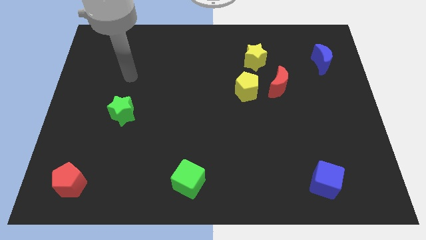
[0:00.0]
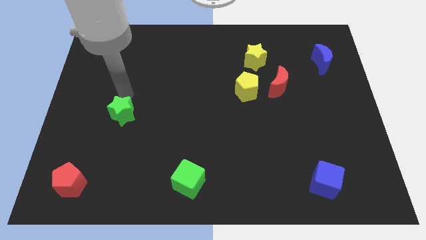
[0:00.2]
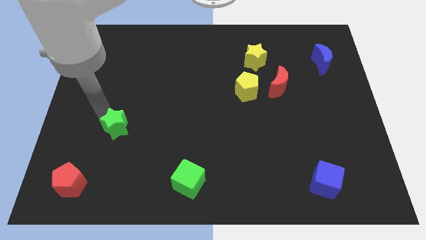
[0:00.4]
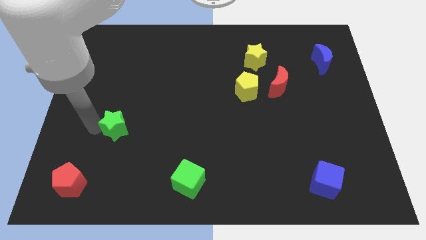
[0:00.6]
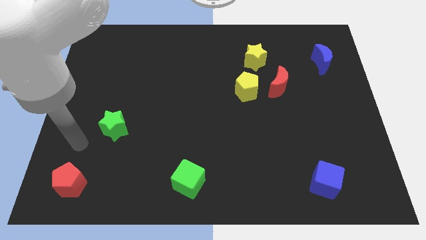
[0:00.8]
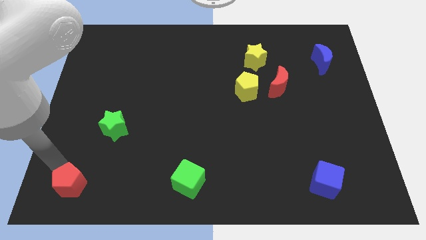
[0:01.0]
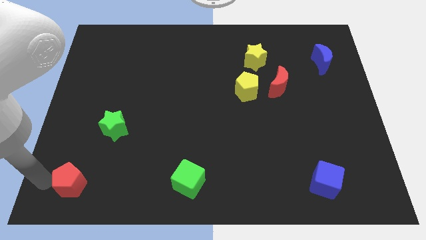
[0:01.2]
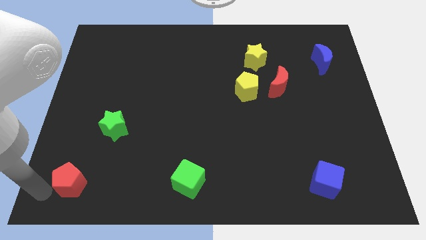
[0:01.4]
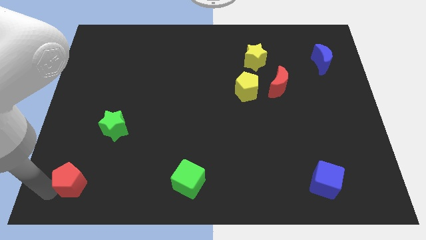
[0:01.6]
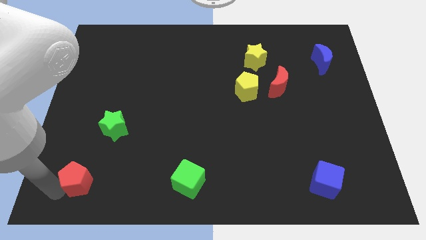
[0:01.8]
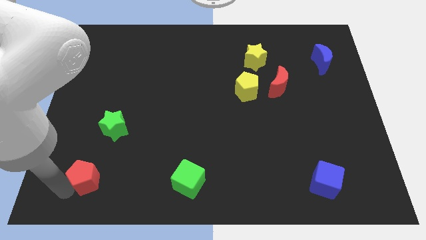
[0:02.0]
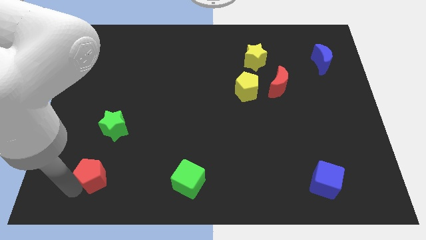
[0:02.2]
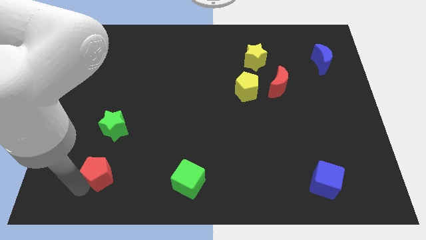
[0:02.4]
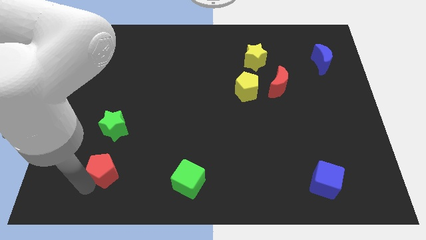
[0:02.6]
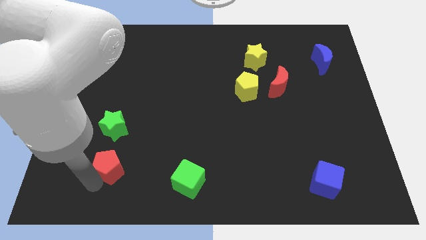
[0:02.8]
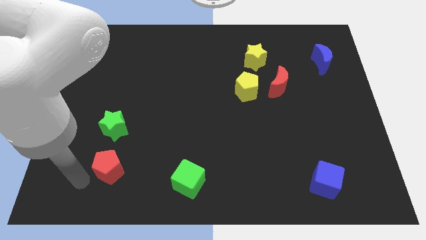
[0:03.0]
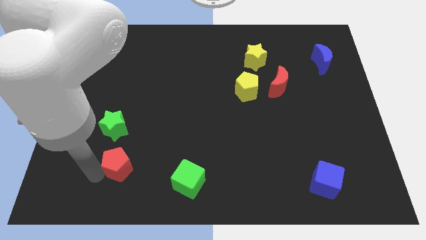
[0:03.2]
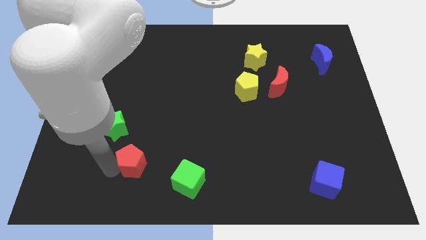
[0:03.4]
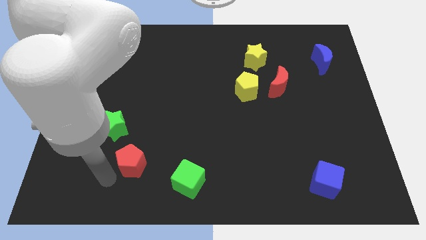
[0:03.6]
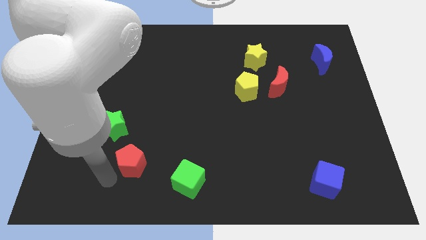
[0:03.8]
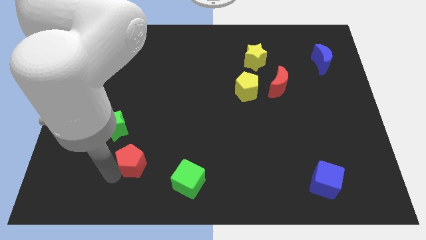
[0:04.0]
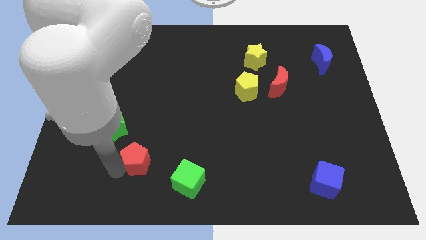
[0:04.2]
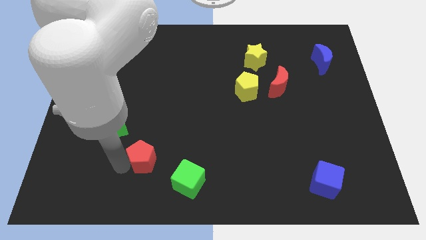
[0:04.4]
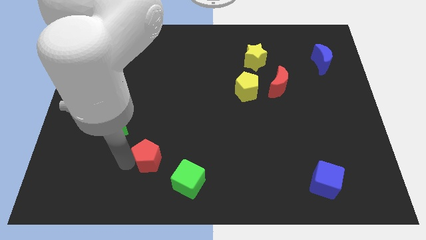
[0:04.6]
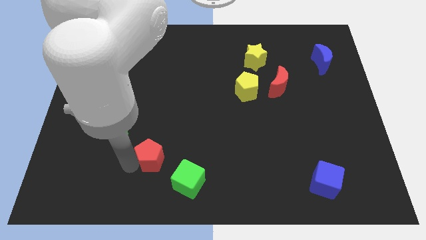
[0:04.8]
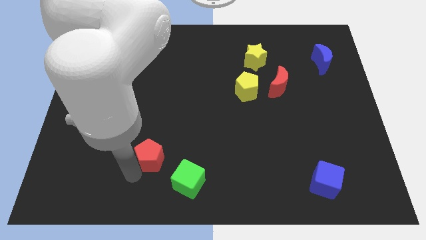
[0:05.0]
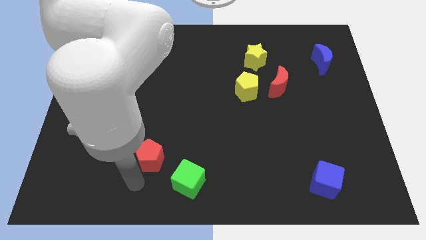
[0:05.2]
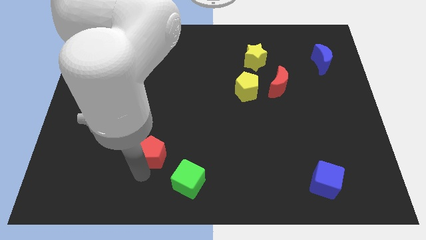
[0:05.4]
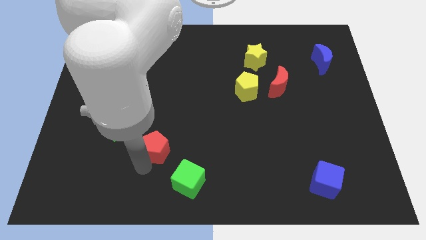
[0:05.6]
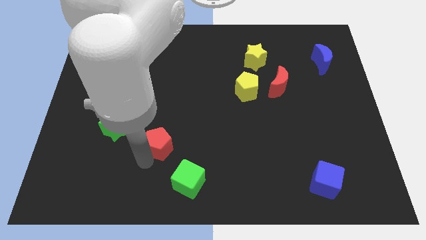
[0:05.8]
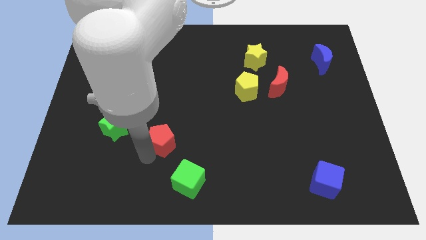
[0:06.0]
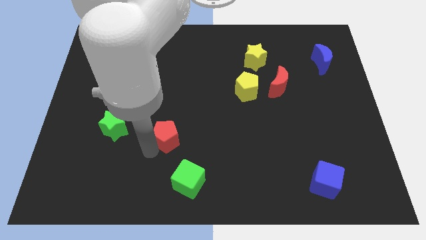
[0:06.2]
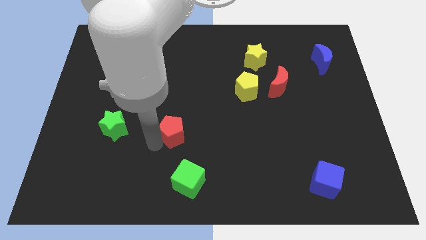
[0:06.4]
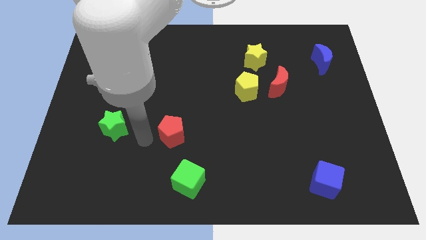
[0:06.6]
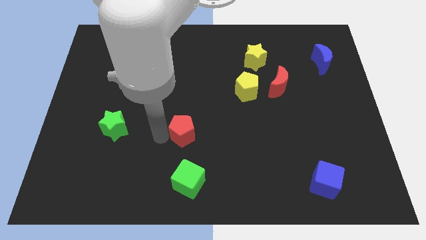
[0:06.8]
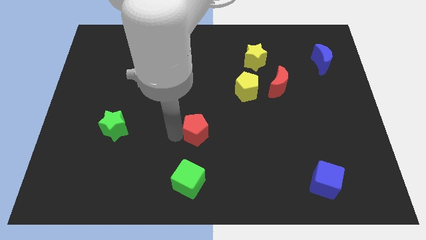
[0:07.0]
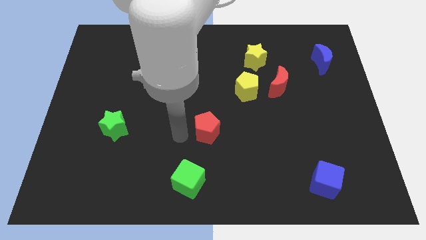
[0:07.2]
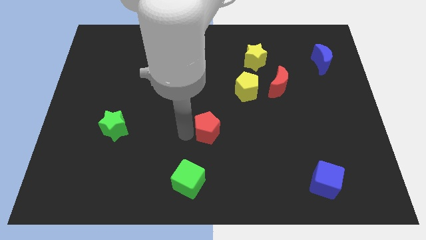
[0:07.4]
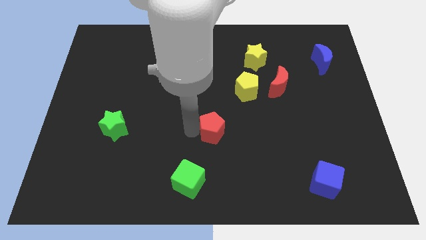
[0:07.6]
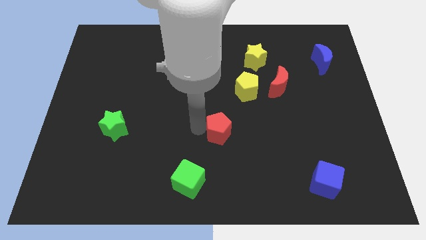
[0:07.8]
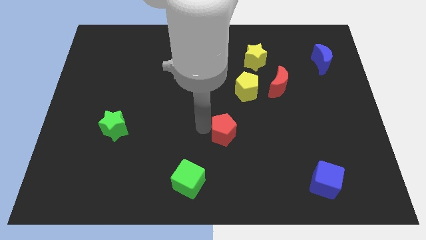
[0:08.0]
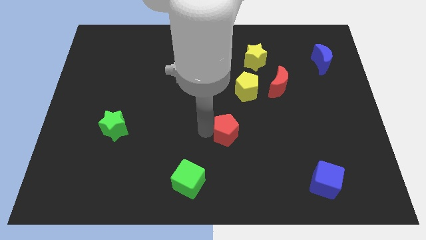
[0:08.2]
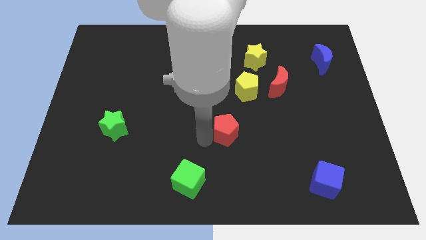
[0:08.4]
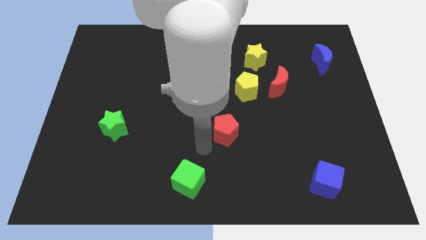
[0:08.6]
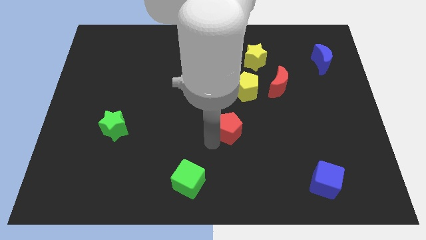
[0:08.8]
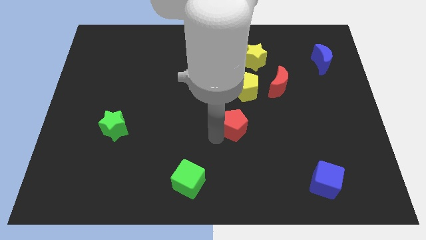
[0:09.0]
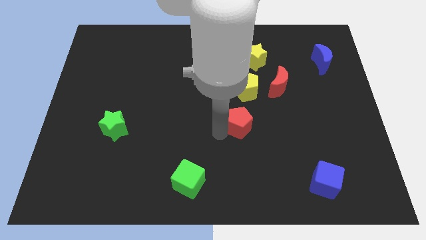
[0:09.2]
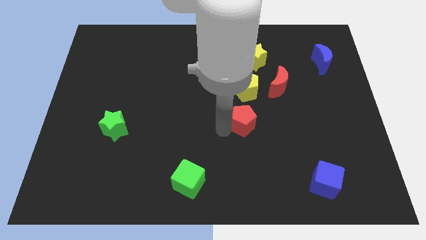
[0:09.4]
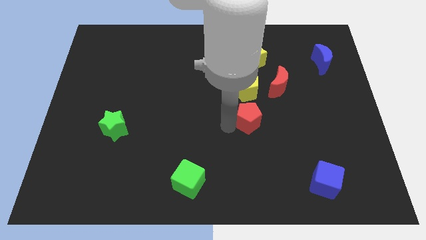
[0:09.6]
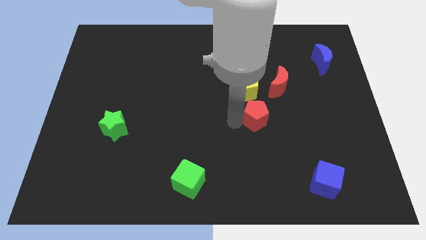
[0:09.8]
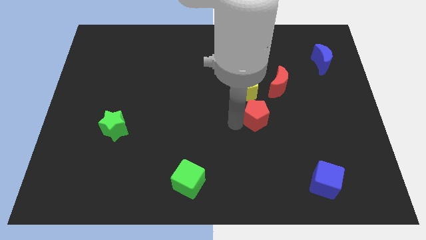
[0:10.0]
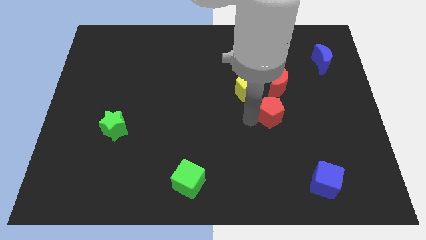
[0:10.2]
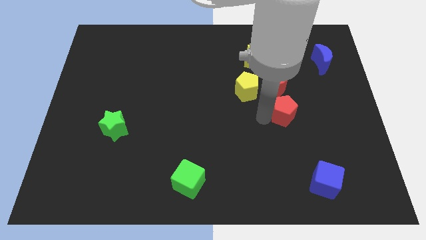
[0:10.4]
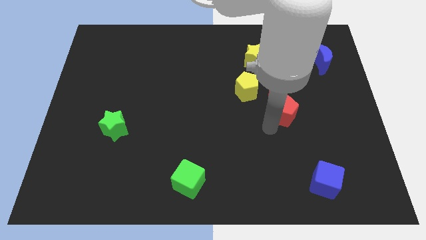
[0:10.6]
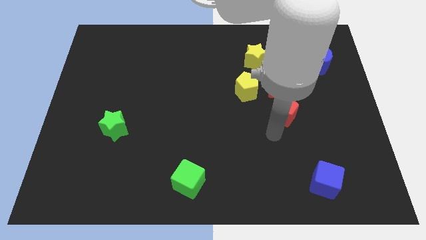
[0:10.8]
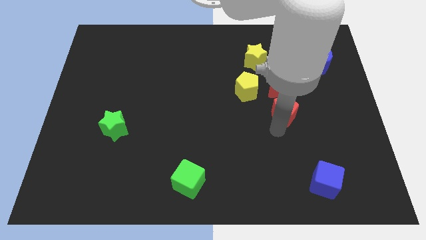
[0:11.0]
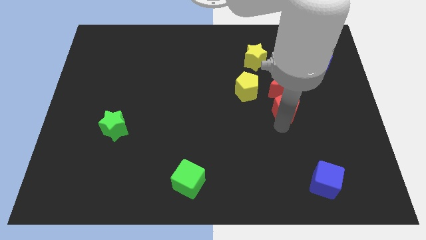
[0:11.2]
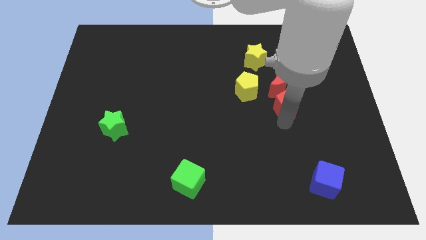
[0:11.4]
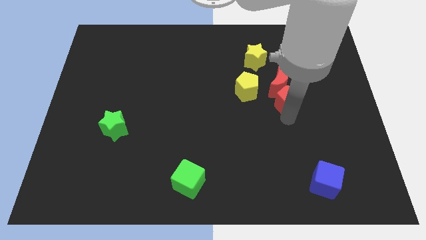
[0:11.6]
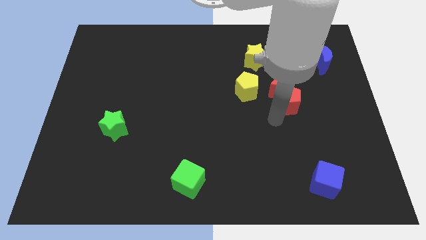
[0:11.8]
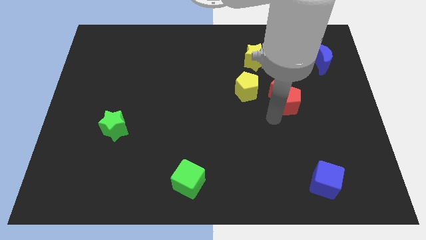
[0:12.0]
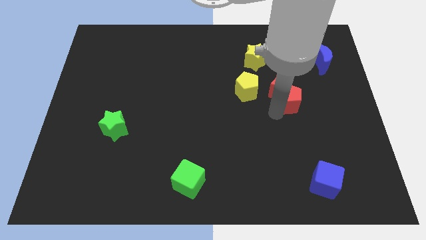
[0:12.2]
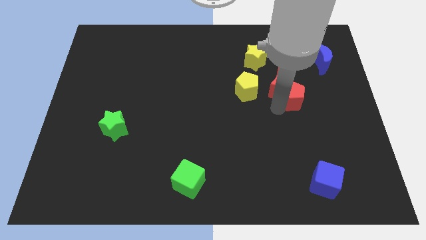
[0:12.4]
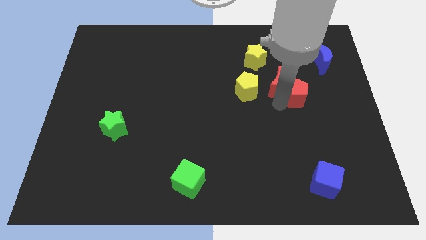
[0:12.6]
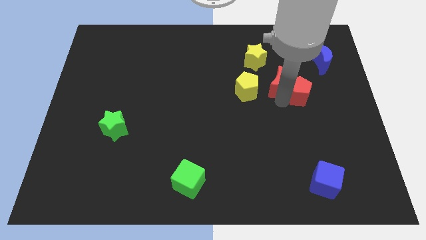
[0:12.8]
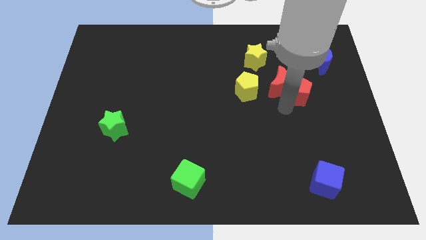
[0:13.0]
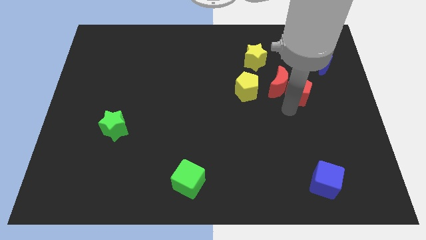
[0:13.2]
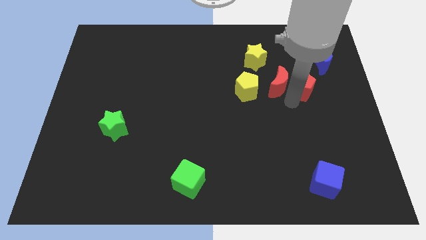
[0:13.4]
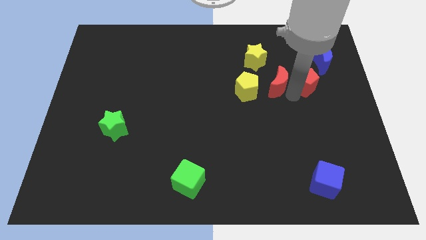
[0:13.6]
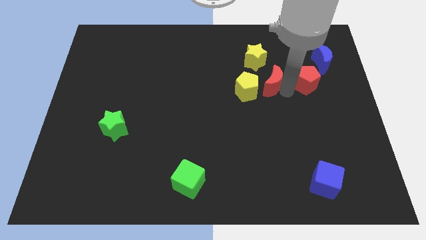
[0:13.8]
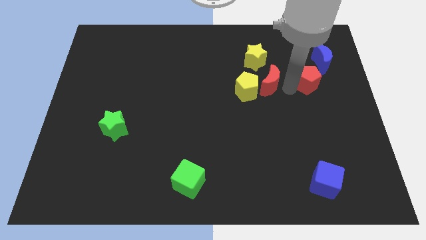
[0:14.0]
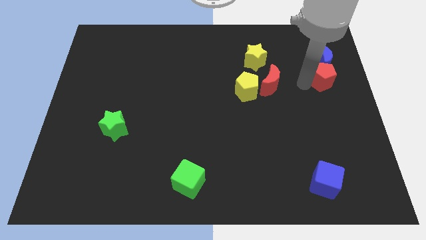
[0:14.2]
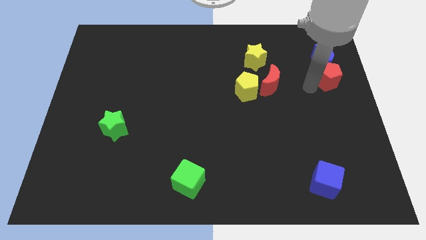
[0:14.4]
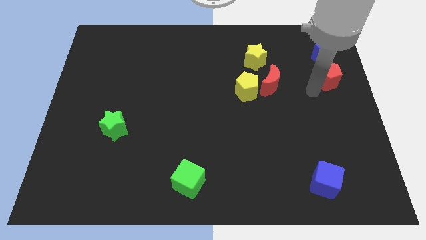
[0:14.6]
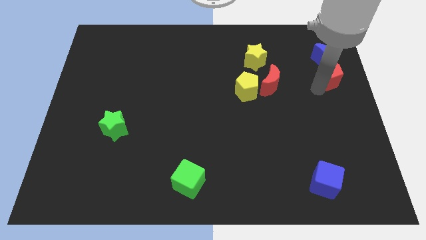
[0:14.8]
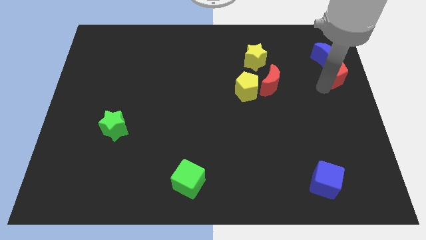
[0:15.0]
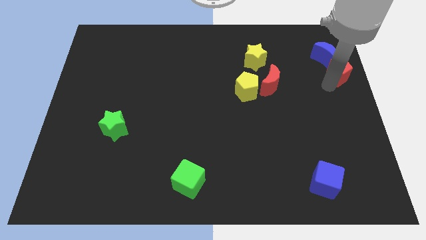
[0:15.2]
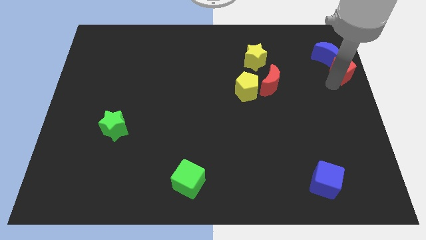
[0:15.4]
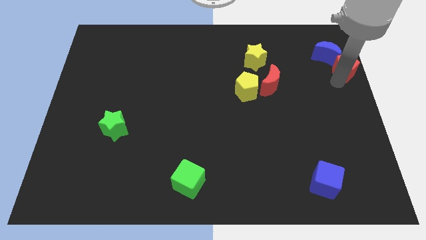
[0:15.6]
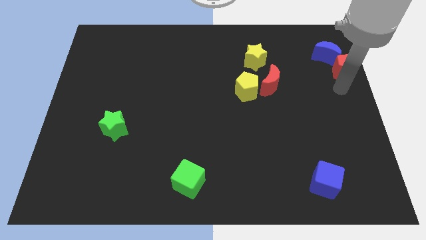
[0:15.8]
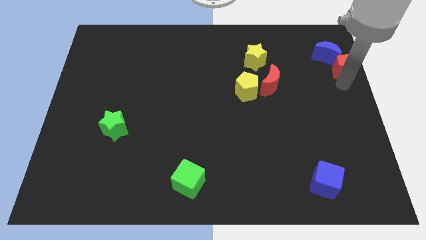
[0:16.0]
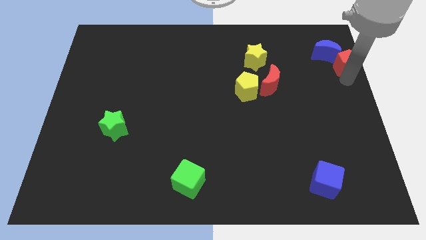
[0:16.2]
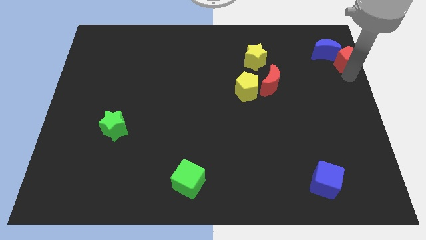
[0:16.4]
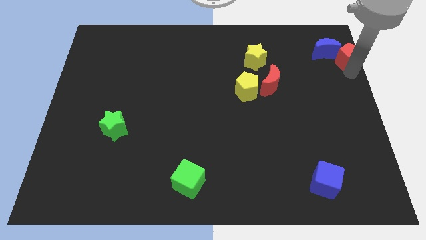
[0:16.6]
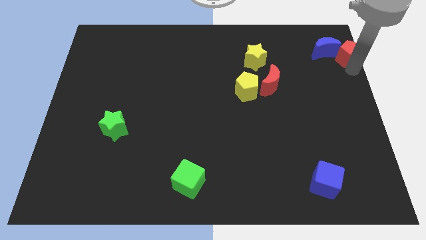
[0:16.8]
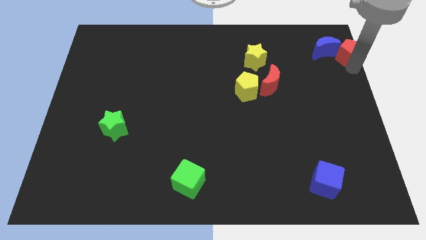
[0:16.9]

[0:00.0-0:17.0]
move the red pentagon to the top right
